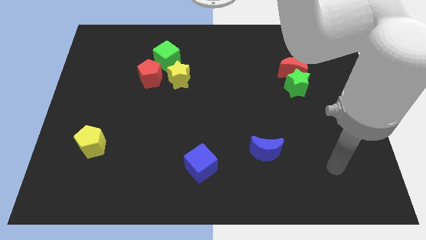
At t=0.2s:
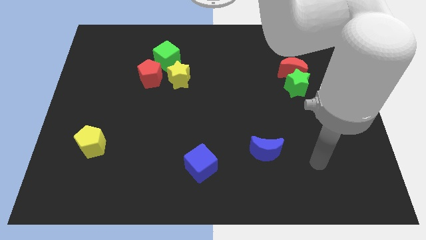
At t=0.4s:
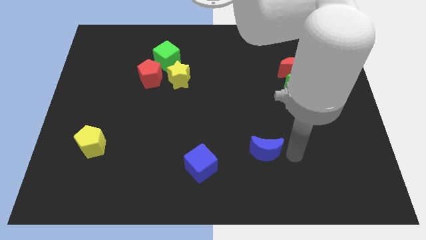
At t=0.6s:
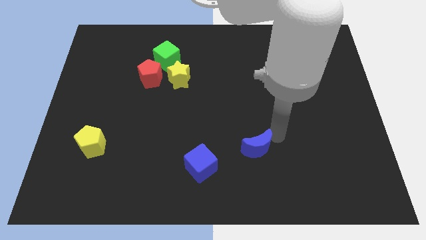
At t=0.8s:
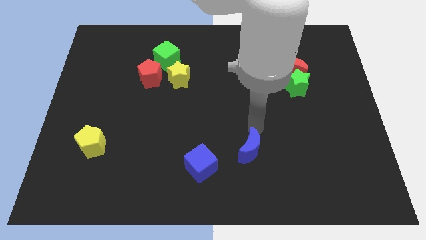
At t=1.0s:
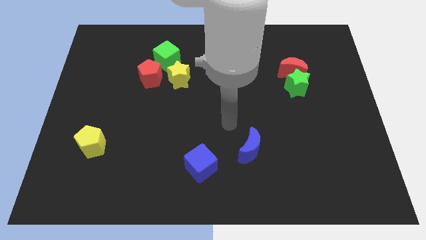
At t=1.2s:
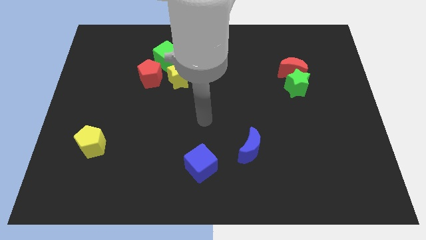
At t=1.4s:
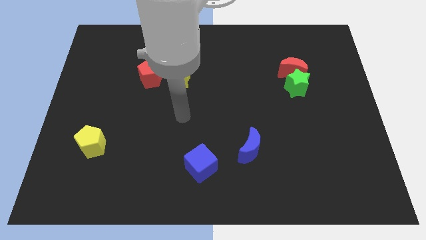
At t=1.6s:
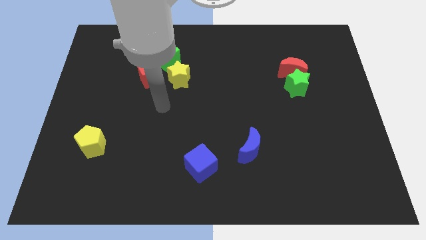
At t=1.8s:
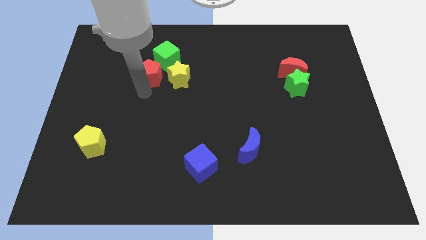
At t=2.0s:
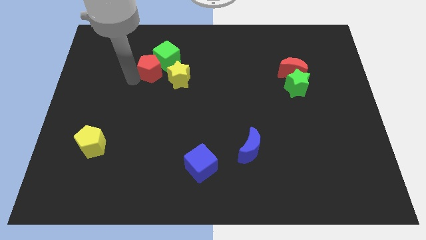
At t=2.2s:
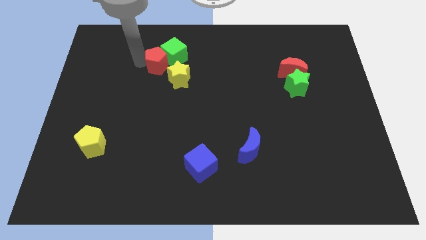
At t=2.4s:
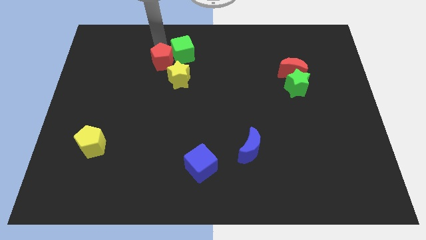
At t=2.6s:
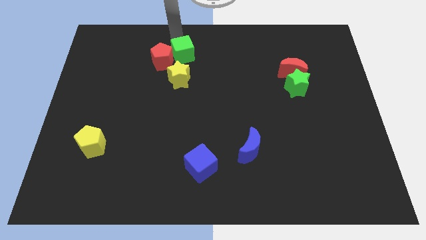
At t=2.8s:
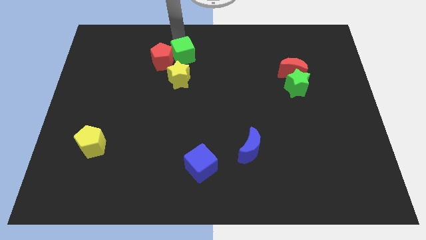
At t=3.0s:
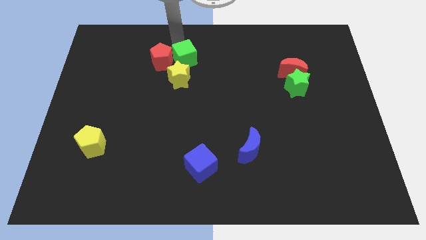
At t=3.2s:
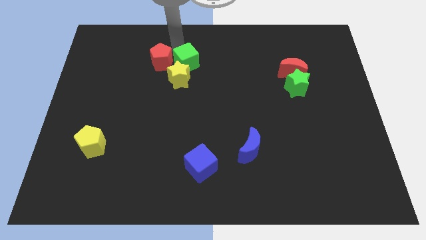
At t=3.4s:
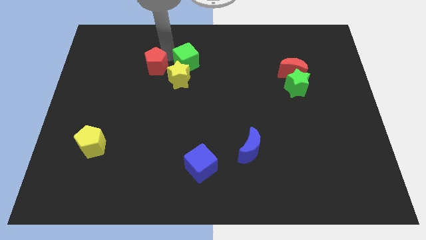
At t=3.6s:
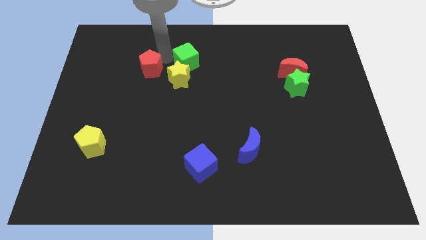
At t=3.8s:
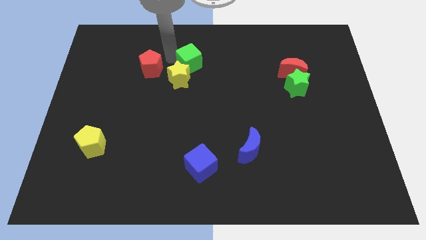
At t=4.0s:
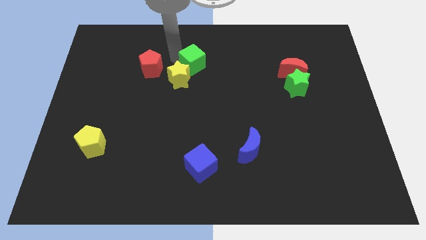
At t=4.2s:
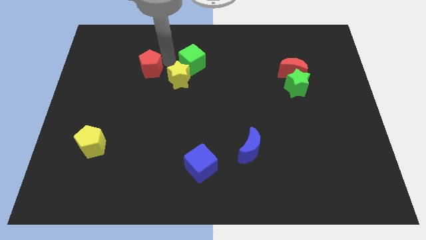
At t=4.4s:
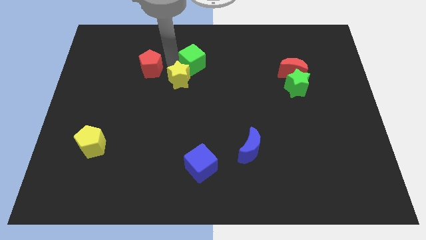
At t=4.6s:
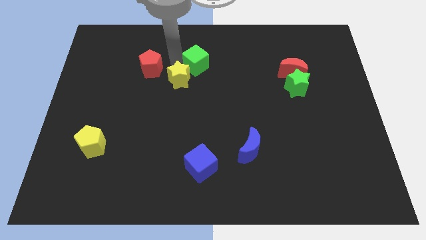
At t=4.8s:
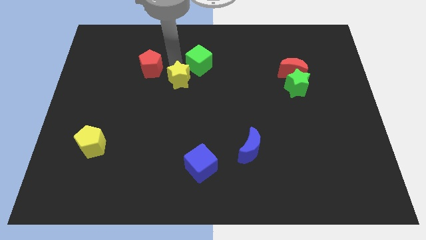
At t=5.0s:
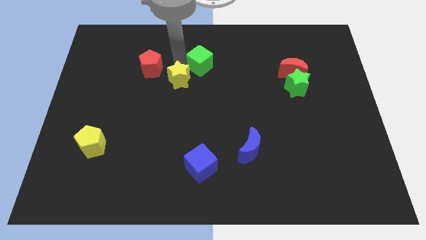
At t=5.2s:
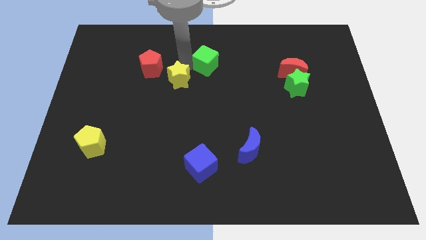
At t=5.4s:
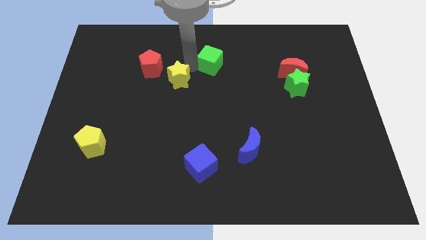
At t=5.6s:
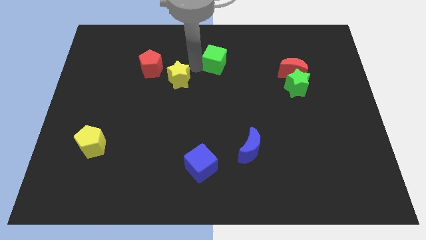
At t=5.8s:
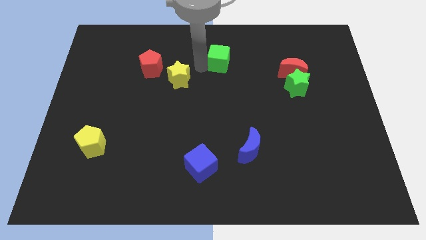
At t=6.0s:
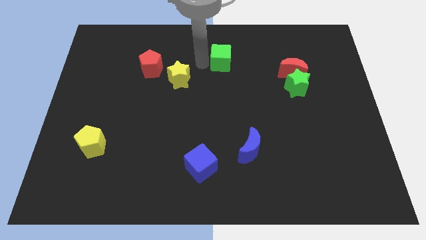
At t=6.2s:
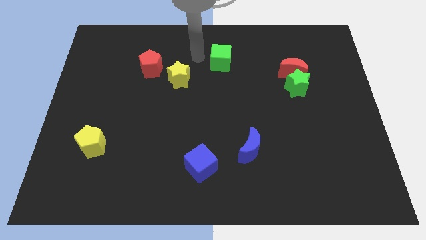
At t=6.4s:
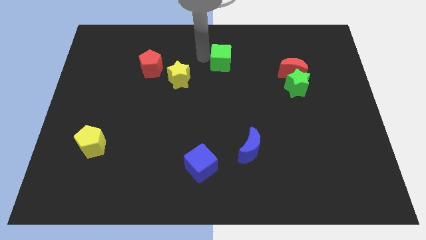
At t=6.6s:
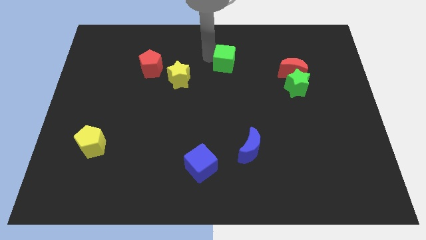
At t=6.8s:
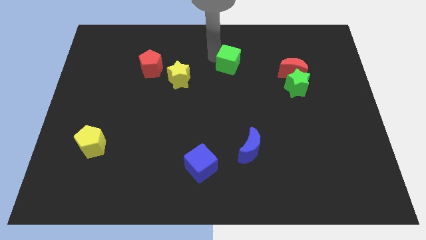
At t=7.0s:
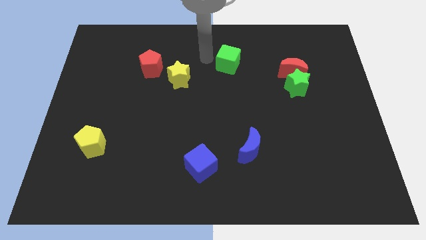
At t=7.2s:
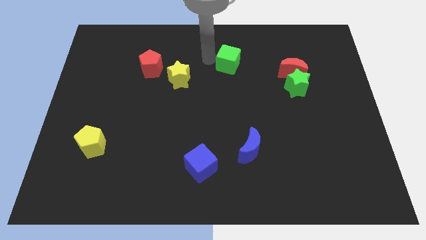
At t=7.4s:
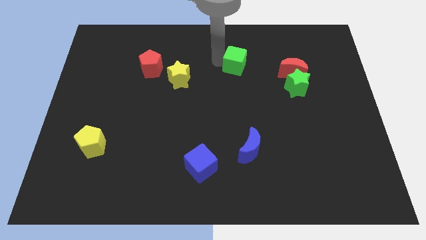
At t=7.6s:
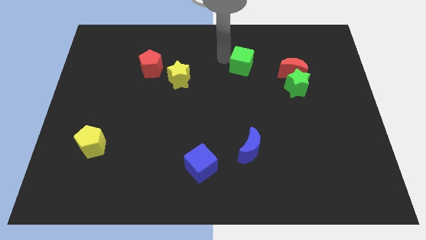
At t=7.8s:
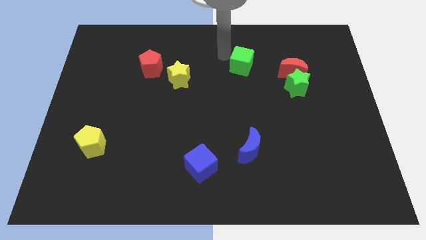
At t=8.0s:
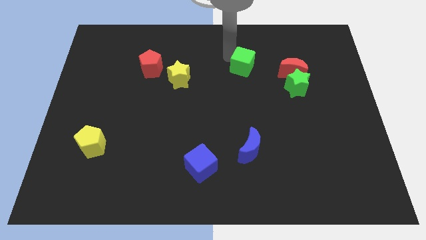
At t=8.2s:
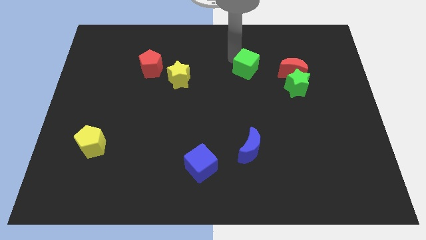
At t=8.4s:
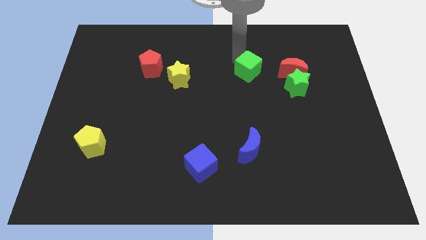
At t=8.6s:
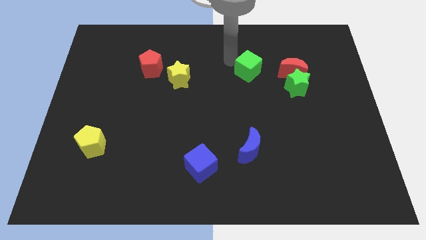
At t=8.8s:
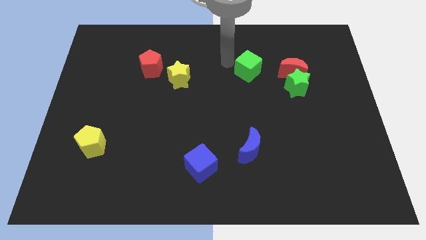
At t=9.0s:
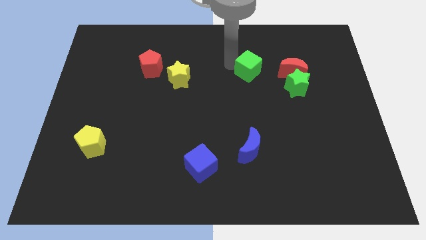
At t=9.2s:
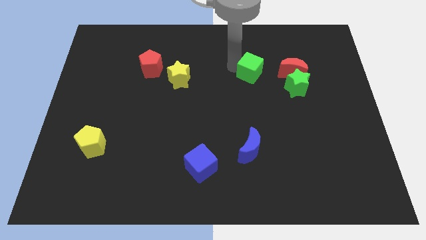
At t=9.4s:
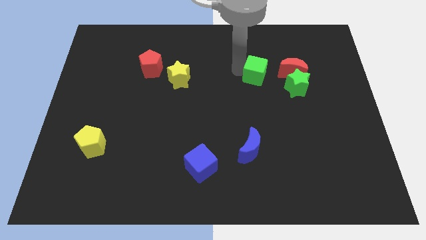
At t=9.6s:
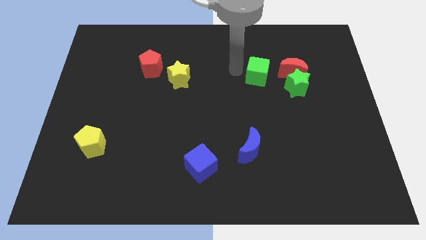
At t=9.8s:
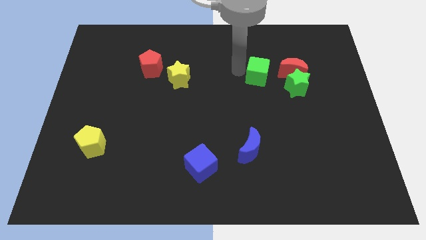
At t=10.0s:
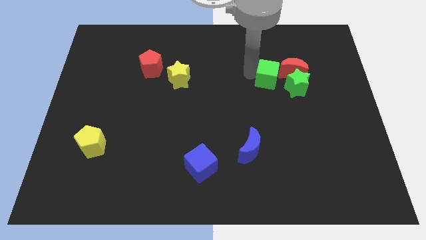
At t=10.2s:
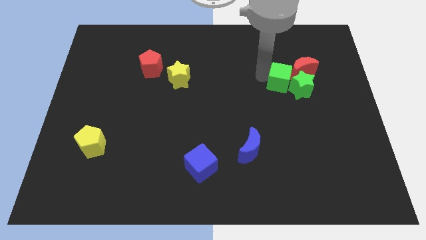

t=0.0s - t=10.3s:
slide the green cube towards the green star

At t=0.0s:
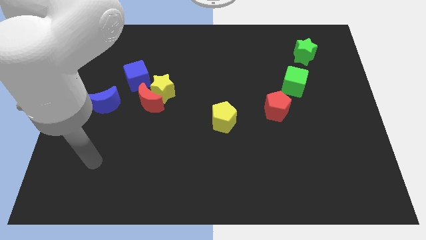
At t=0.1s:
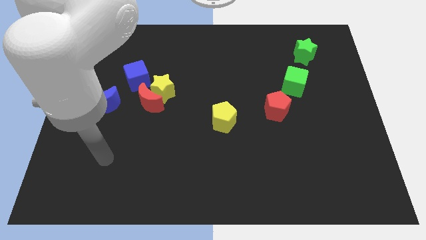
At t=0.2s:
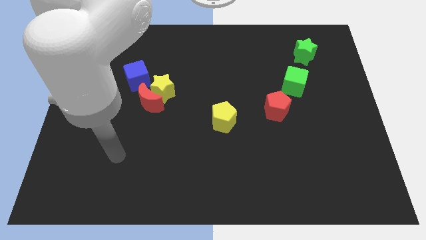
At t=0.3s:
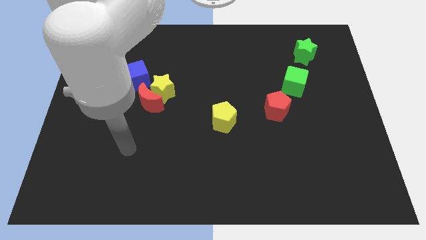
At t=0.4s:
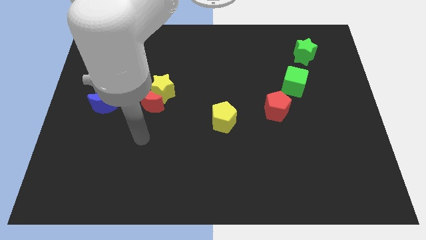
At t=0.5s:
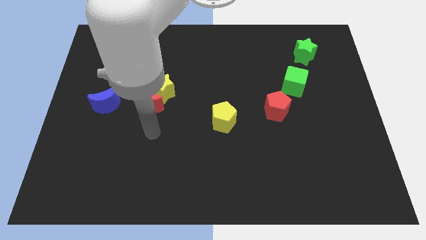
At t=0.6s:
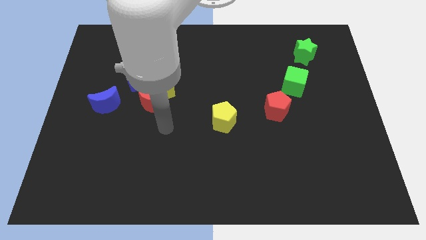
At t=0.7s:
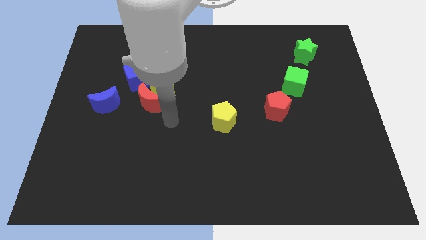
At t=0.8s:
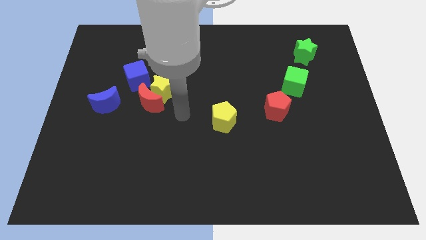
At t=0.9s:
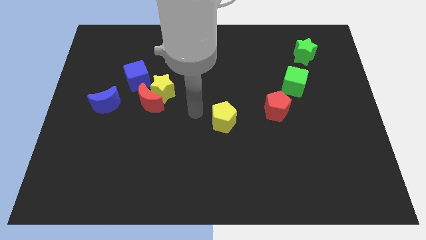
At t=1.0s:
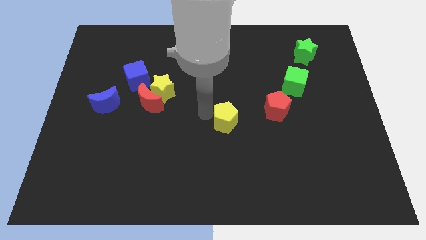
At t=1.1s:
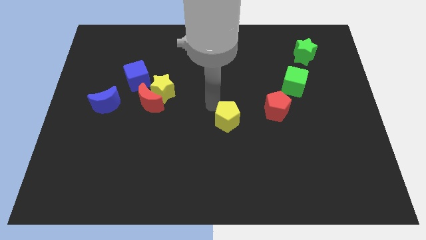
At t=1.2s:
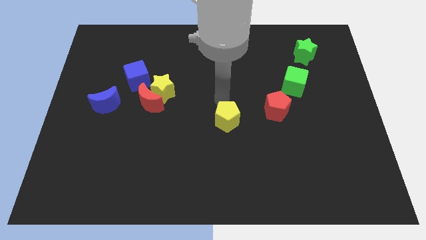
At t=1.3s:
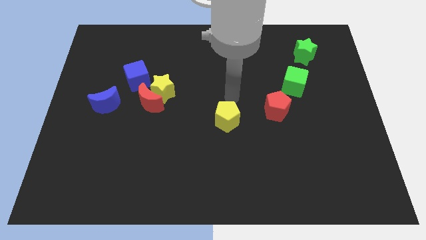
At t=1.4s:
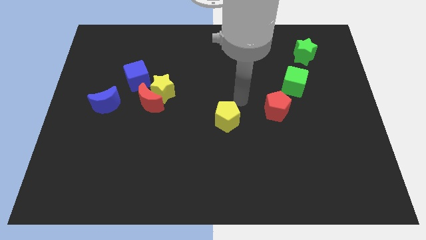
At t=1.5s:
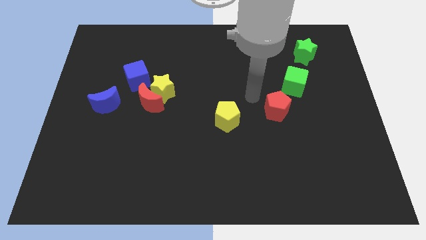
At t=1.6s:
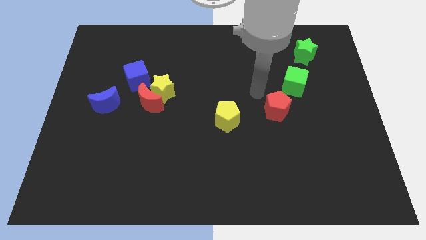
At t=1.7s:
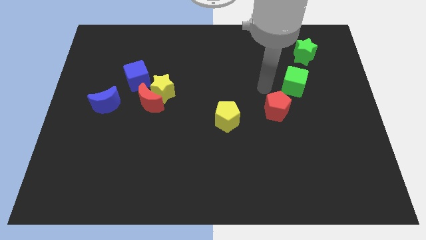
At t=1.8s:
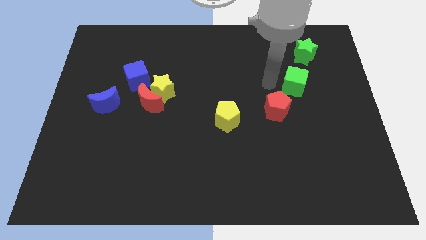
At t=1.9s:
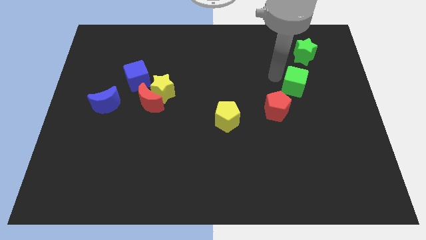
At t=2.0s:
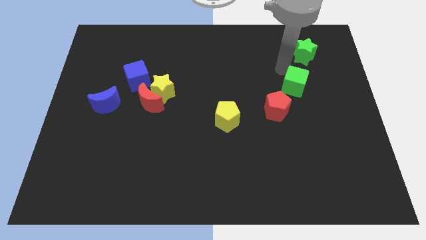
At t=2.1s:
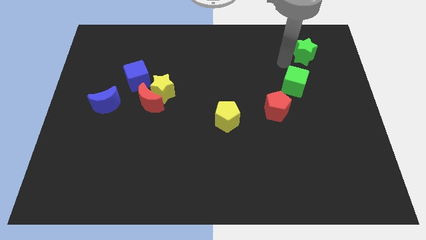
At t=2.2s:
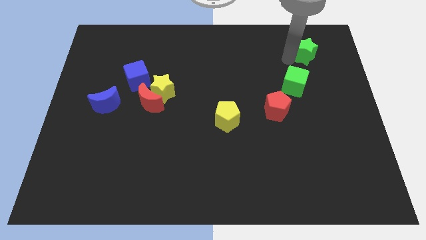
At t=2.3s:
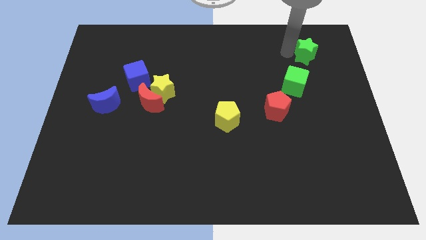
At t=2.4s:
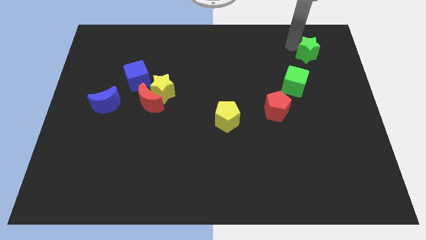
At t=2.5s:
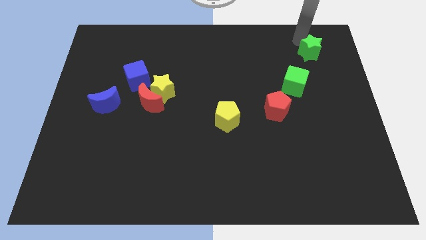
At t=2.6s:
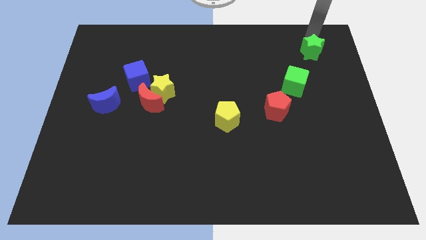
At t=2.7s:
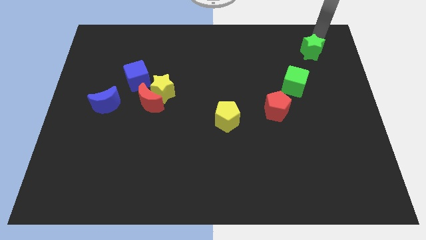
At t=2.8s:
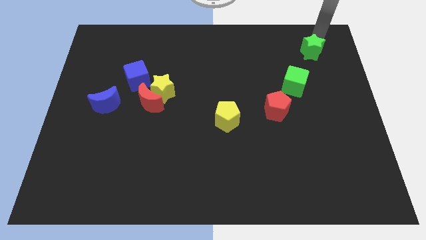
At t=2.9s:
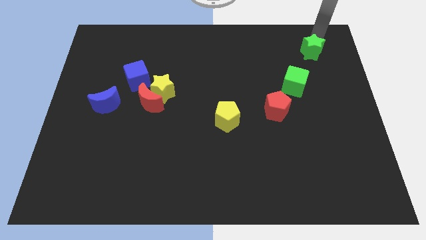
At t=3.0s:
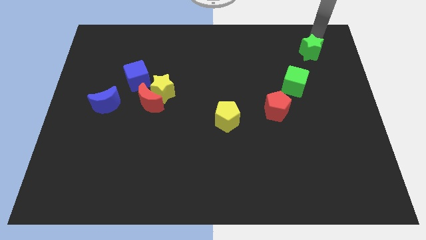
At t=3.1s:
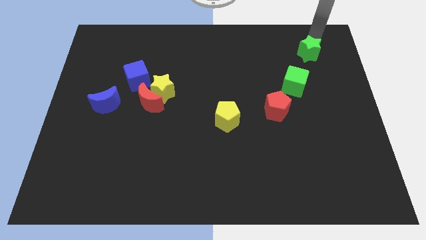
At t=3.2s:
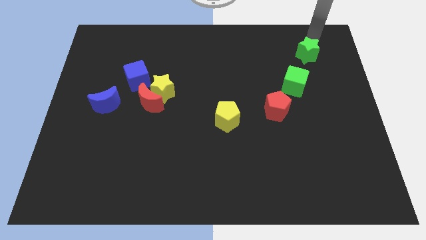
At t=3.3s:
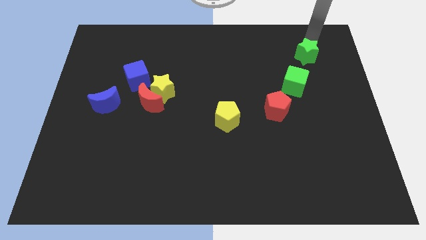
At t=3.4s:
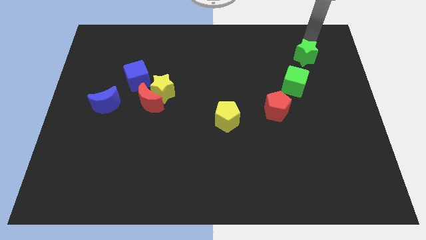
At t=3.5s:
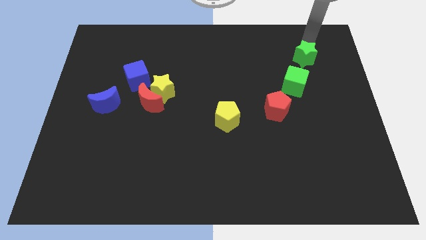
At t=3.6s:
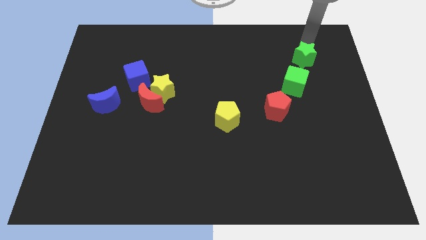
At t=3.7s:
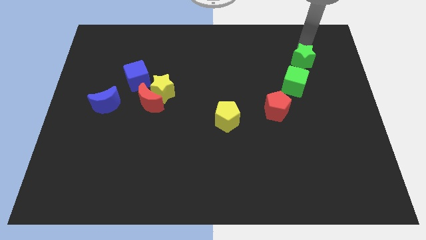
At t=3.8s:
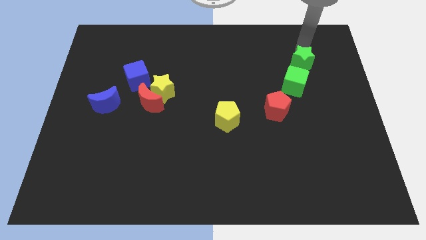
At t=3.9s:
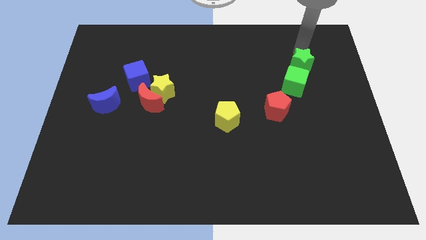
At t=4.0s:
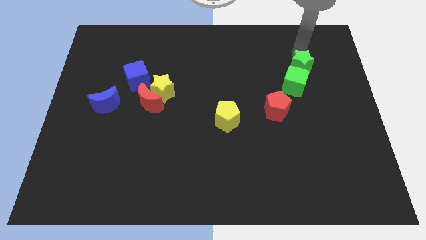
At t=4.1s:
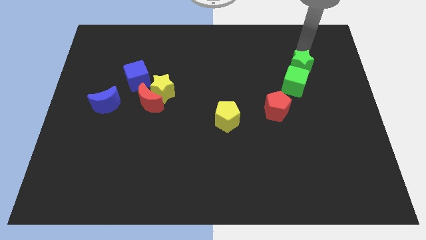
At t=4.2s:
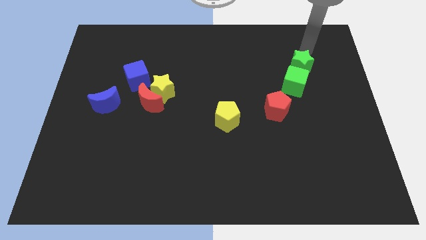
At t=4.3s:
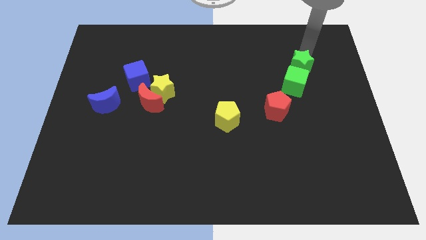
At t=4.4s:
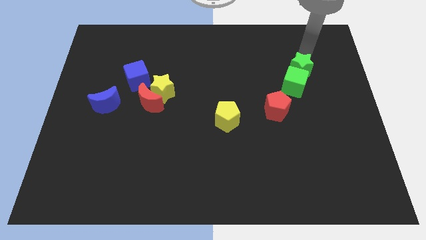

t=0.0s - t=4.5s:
put the green star to the green cube
